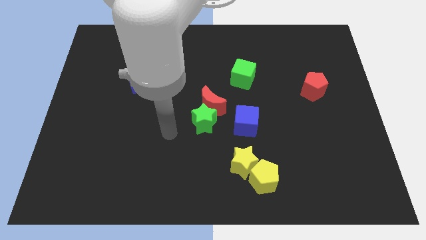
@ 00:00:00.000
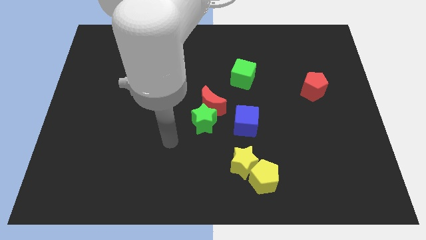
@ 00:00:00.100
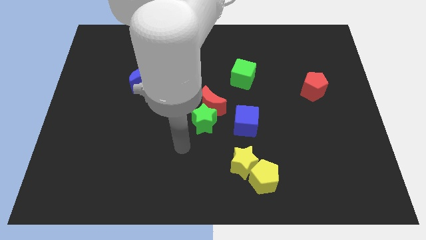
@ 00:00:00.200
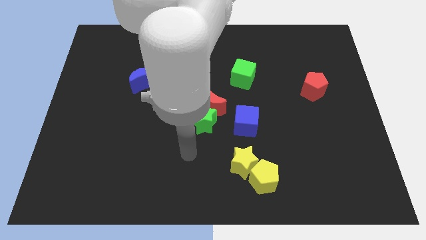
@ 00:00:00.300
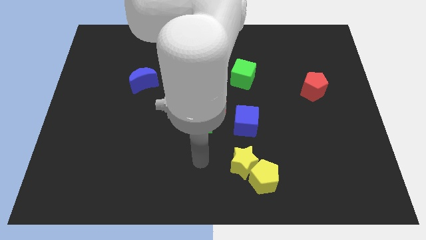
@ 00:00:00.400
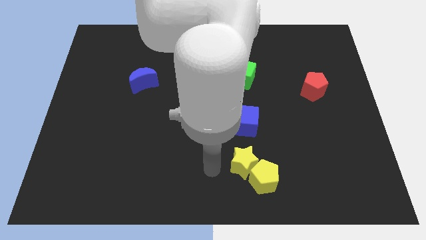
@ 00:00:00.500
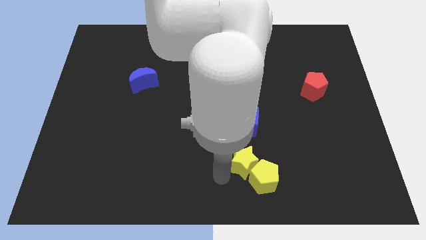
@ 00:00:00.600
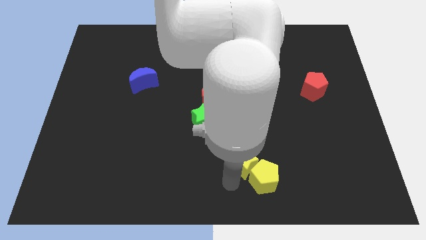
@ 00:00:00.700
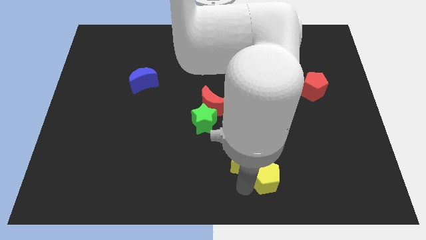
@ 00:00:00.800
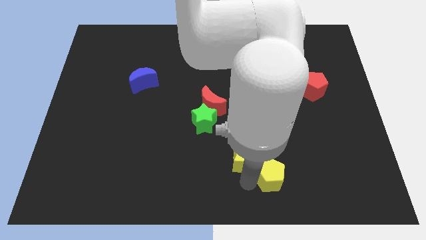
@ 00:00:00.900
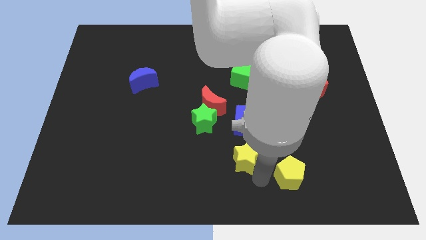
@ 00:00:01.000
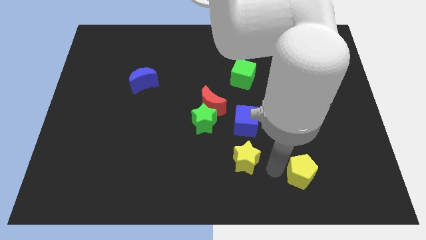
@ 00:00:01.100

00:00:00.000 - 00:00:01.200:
move the yellow star away from the yellow pentagon

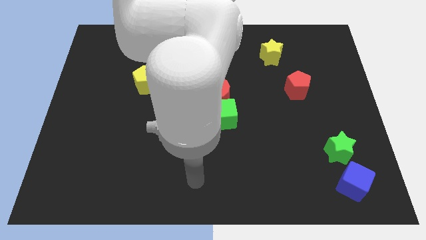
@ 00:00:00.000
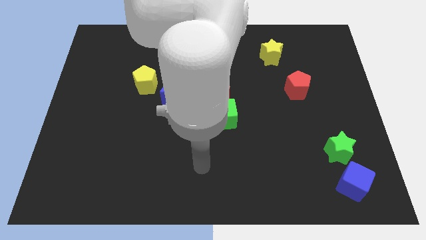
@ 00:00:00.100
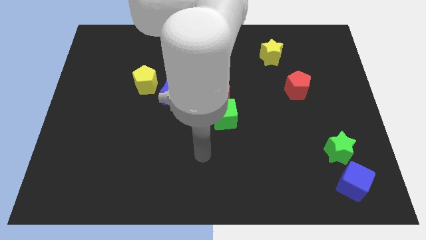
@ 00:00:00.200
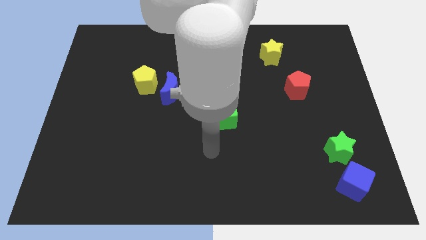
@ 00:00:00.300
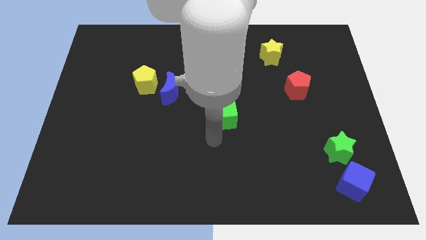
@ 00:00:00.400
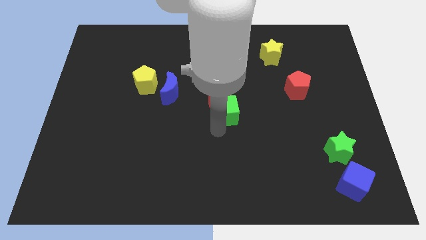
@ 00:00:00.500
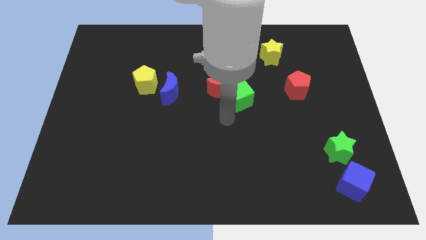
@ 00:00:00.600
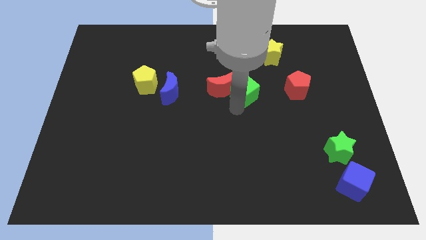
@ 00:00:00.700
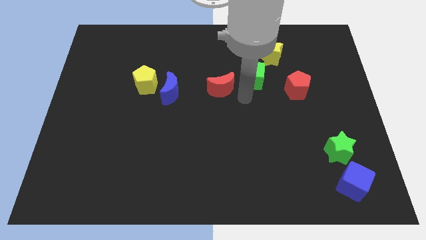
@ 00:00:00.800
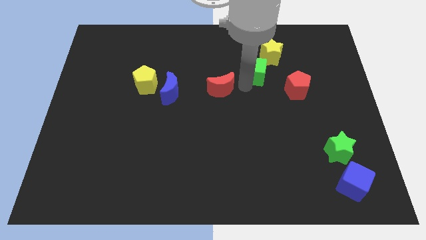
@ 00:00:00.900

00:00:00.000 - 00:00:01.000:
pull the red moon apart from the green cube

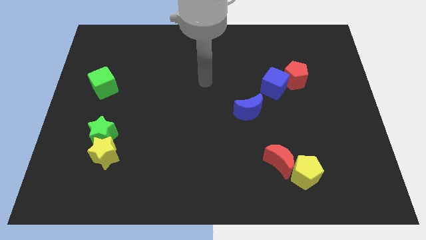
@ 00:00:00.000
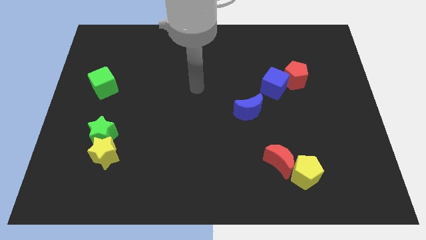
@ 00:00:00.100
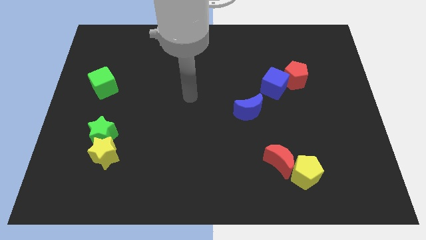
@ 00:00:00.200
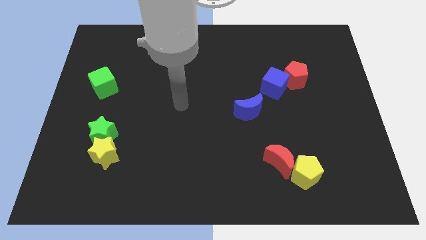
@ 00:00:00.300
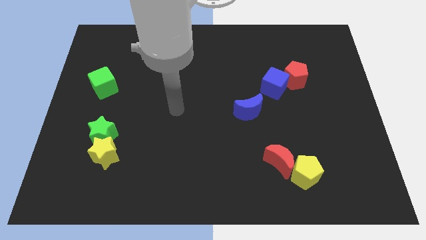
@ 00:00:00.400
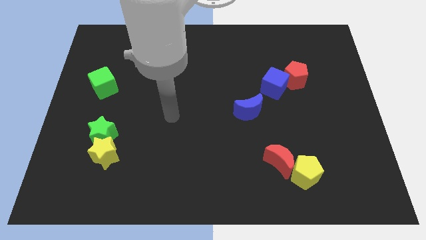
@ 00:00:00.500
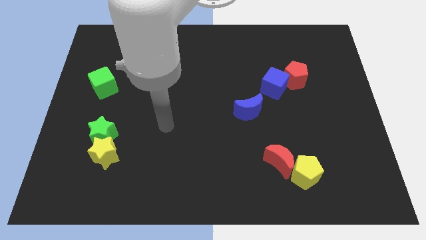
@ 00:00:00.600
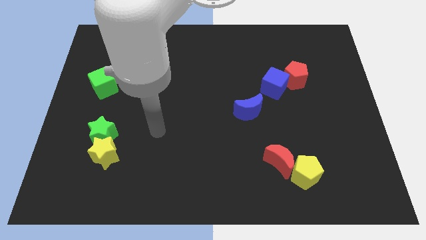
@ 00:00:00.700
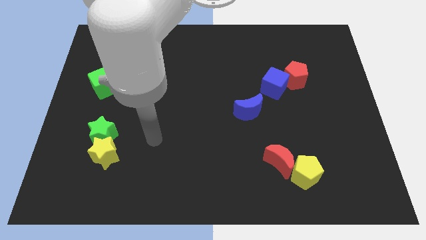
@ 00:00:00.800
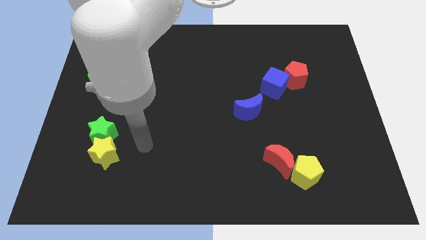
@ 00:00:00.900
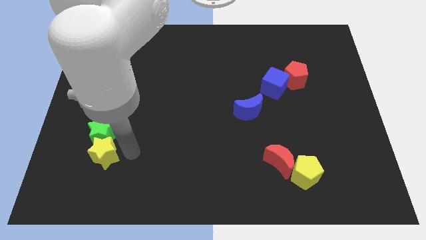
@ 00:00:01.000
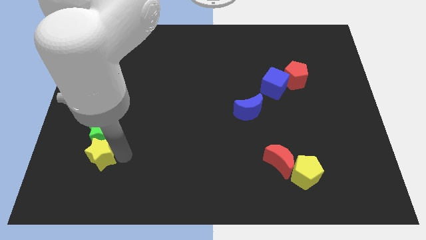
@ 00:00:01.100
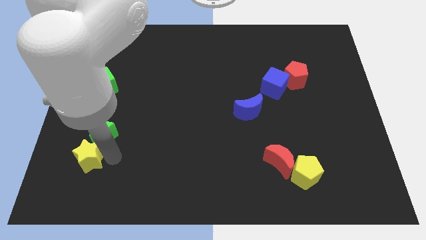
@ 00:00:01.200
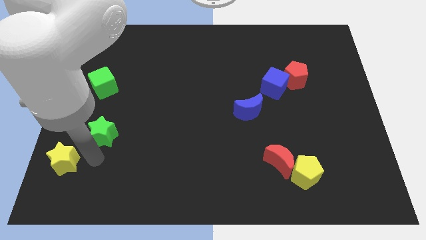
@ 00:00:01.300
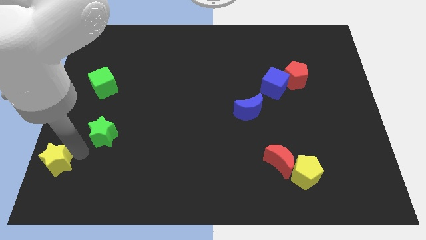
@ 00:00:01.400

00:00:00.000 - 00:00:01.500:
move the green star away from the yellow star

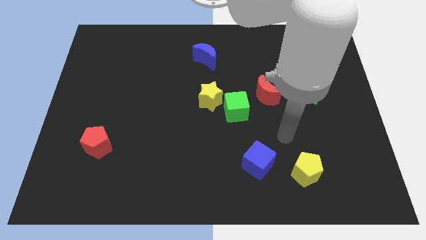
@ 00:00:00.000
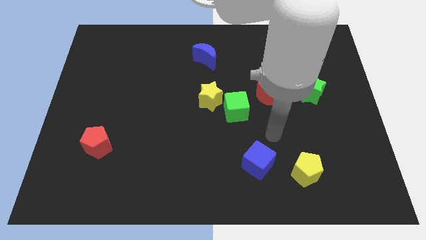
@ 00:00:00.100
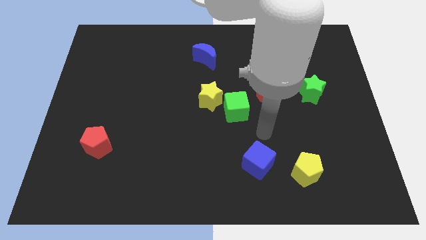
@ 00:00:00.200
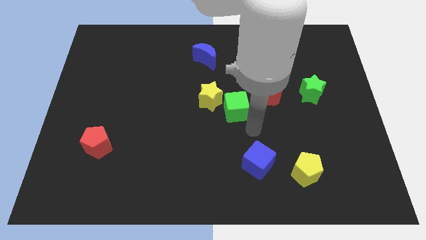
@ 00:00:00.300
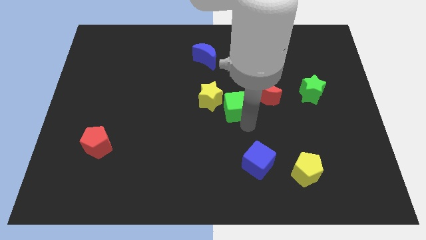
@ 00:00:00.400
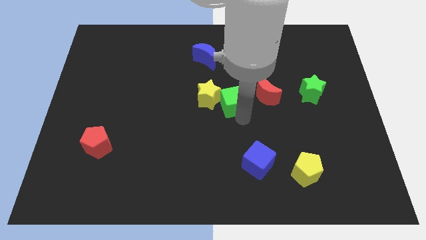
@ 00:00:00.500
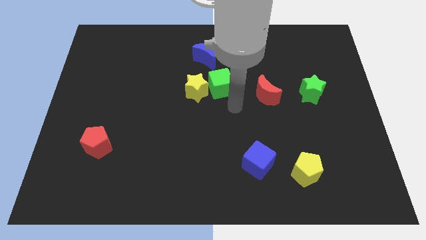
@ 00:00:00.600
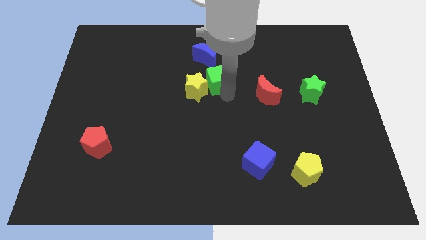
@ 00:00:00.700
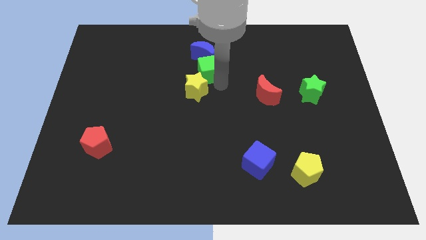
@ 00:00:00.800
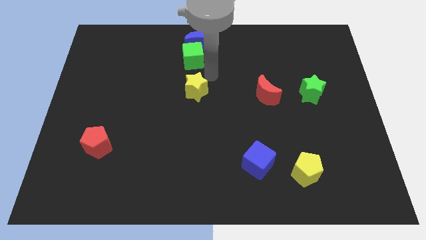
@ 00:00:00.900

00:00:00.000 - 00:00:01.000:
separate the yellow star from the green cube

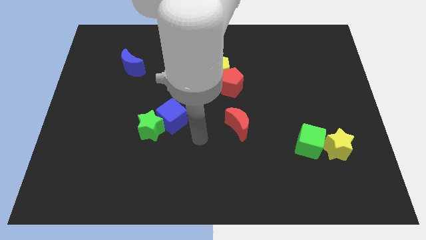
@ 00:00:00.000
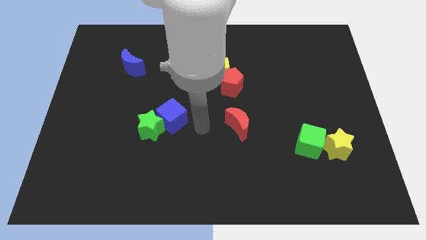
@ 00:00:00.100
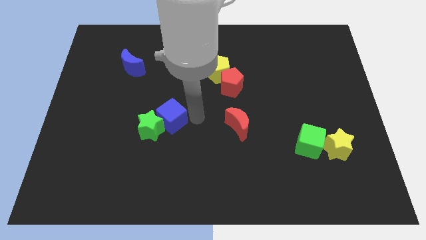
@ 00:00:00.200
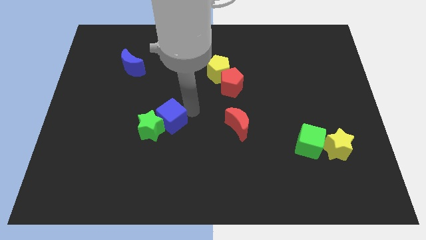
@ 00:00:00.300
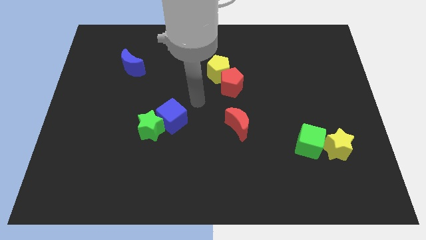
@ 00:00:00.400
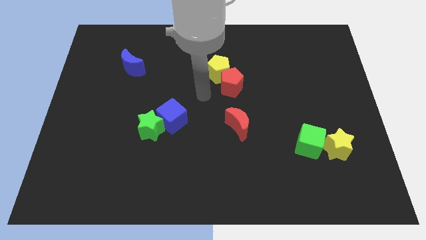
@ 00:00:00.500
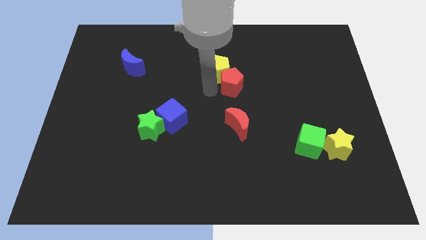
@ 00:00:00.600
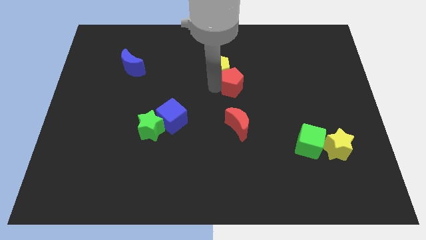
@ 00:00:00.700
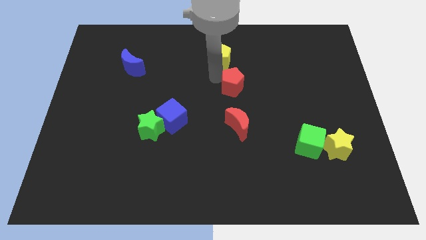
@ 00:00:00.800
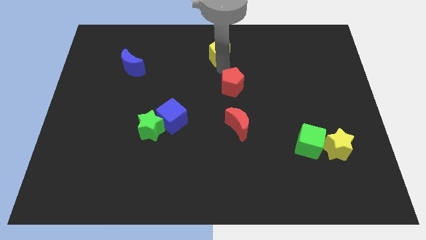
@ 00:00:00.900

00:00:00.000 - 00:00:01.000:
separate the red pentagon from the yellow pentagon

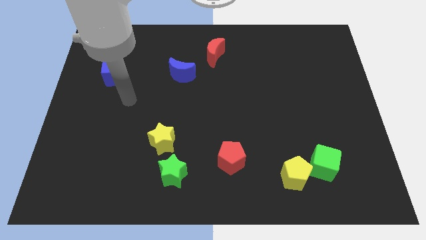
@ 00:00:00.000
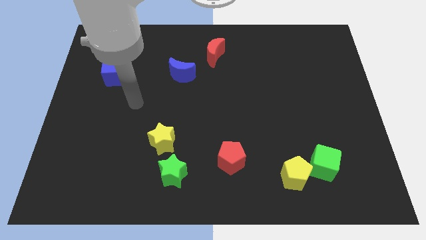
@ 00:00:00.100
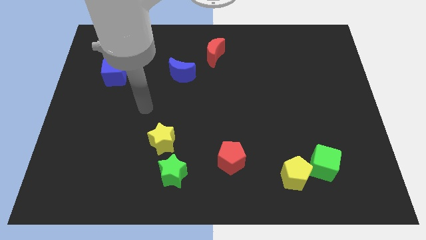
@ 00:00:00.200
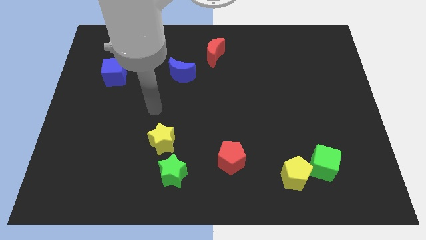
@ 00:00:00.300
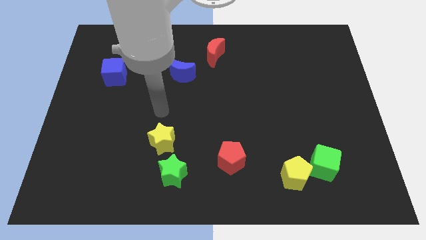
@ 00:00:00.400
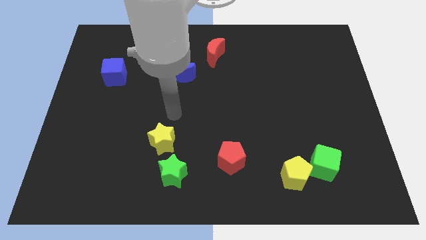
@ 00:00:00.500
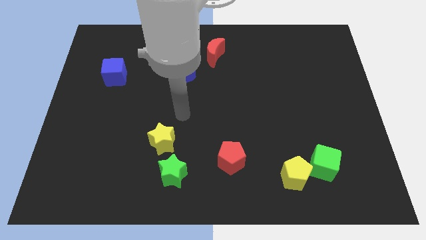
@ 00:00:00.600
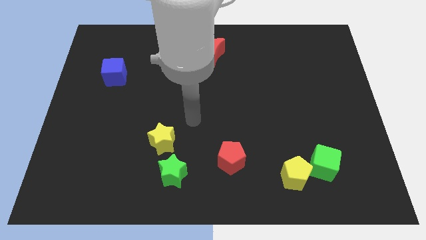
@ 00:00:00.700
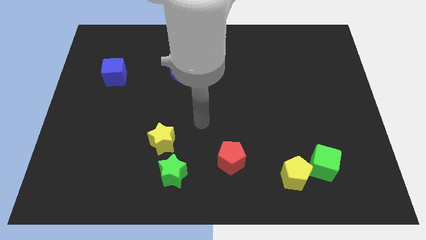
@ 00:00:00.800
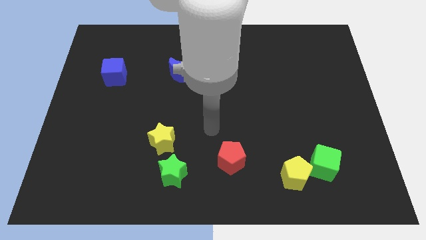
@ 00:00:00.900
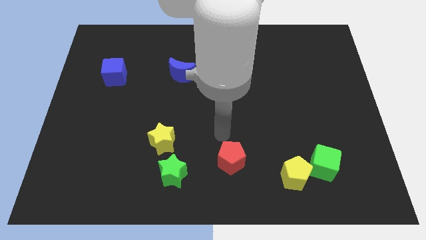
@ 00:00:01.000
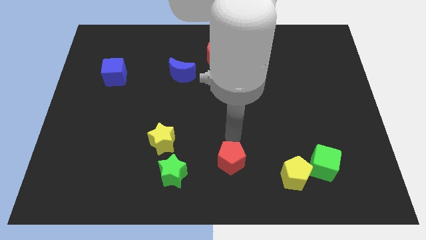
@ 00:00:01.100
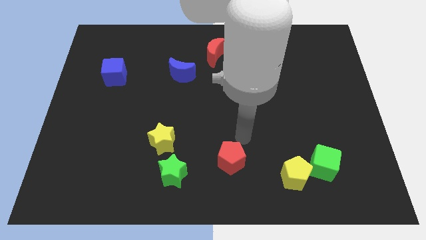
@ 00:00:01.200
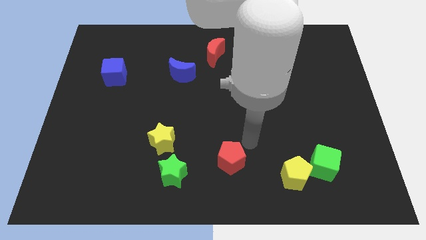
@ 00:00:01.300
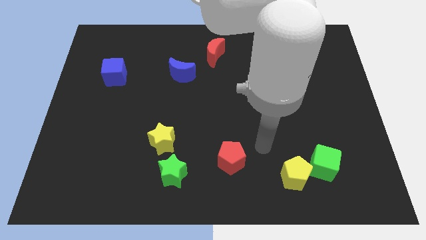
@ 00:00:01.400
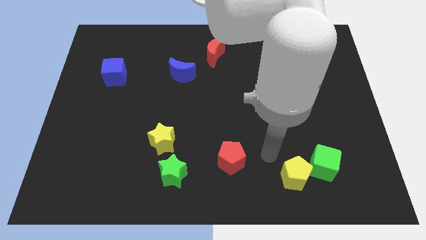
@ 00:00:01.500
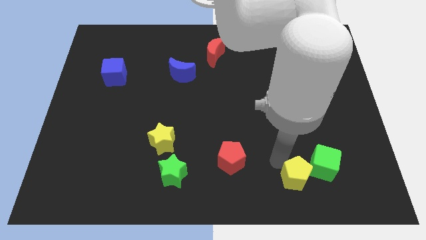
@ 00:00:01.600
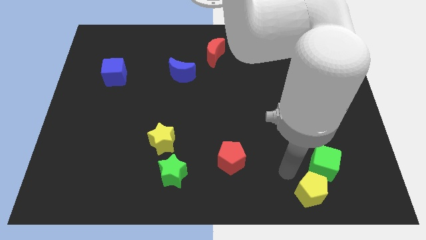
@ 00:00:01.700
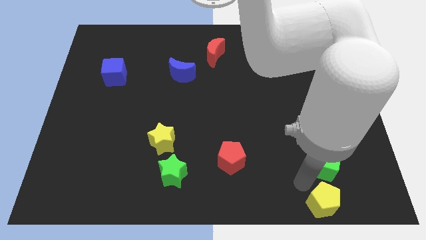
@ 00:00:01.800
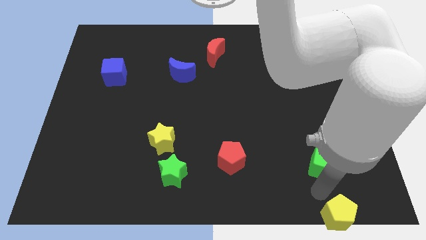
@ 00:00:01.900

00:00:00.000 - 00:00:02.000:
separate the green cube from the yellow pentagon

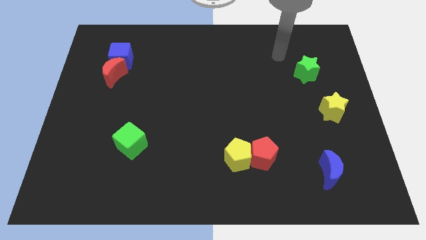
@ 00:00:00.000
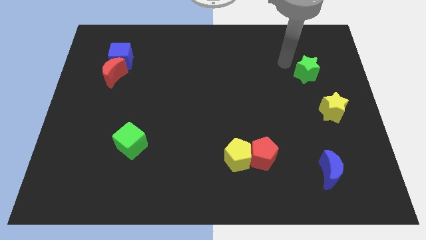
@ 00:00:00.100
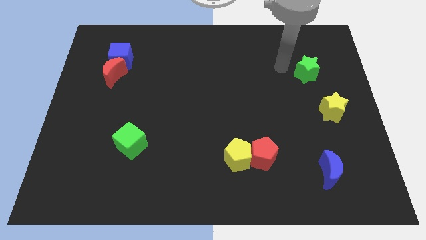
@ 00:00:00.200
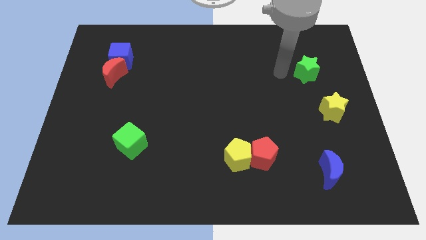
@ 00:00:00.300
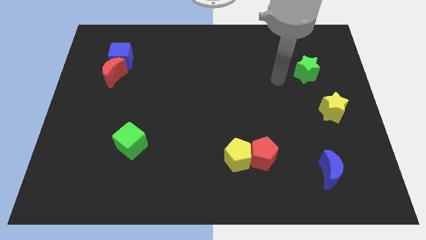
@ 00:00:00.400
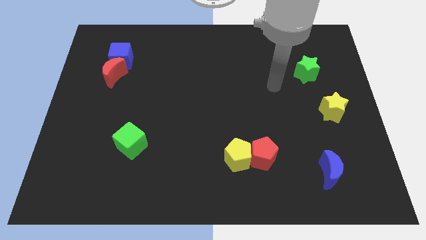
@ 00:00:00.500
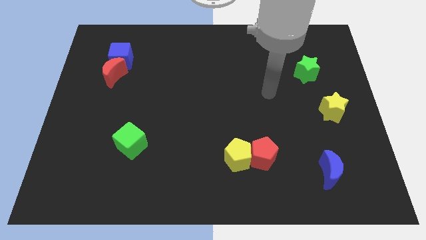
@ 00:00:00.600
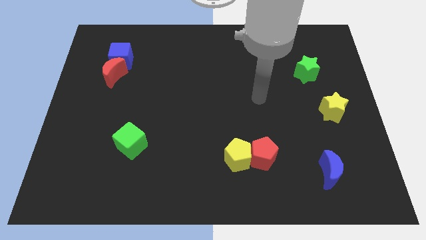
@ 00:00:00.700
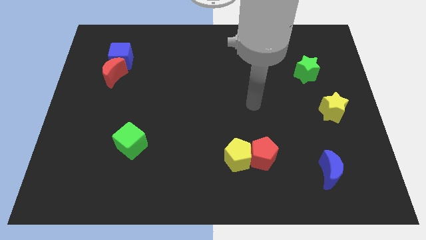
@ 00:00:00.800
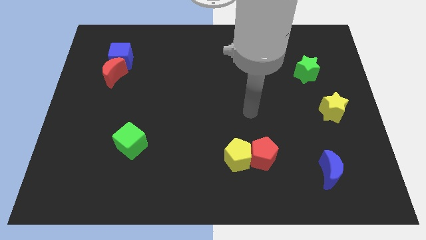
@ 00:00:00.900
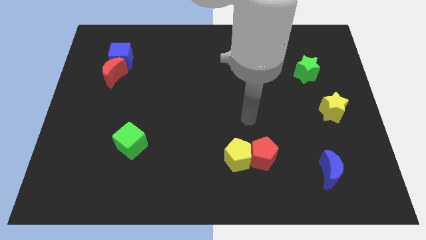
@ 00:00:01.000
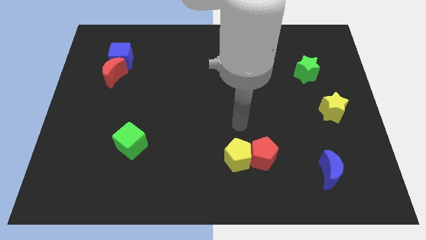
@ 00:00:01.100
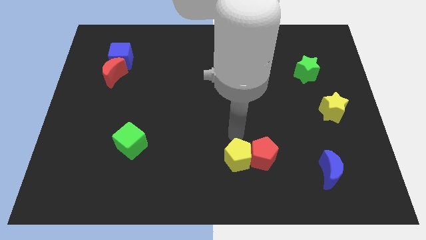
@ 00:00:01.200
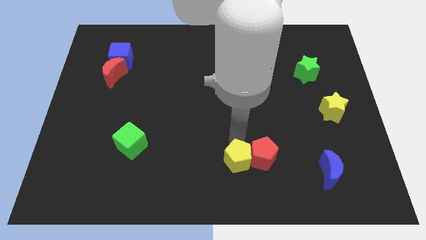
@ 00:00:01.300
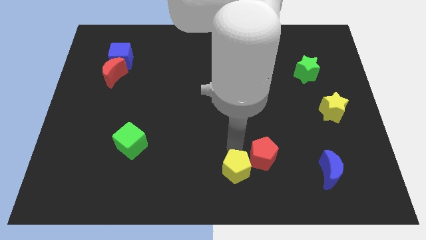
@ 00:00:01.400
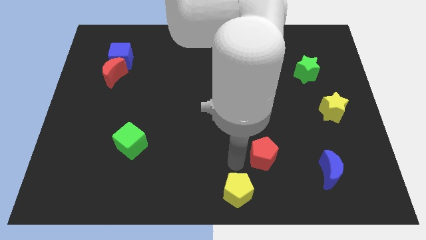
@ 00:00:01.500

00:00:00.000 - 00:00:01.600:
pull the red pentagon apart from the yellow pentagon
